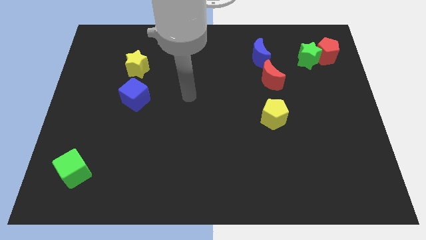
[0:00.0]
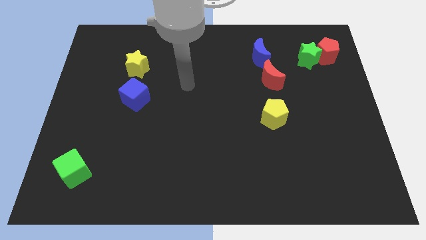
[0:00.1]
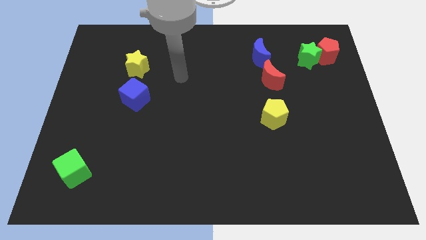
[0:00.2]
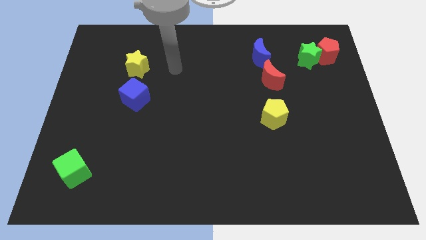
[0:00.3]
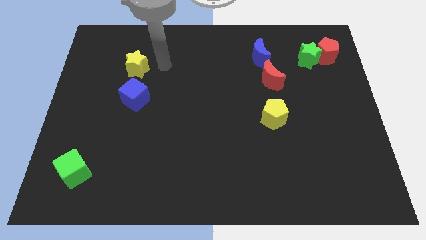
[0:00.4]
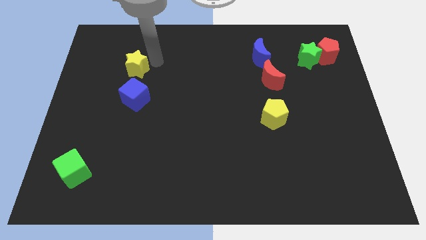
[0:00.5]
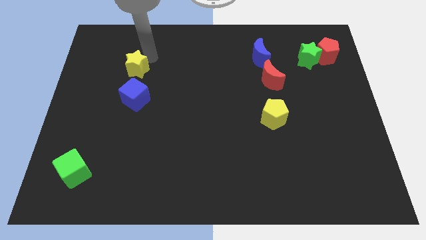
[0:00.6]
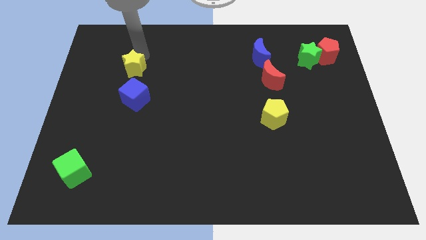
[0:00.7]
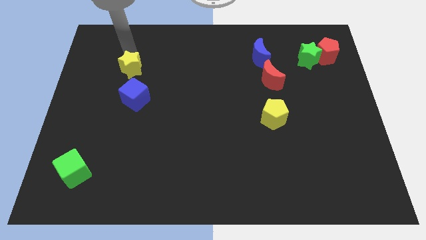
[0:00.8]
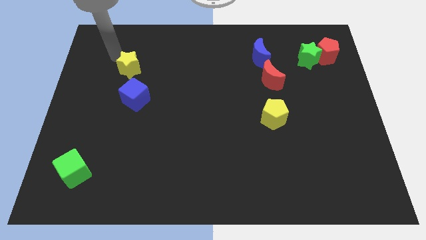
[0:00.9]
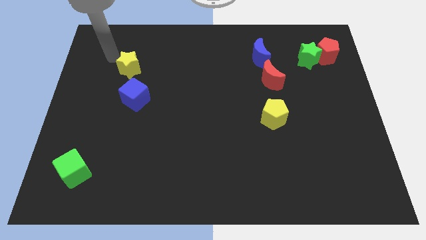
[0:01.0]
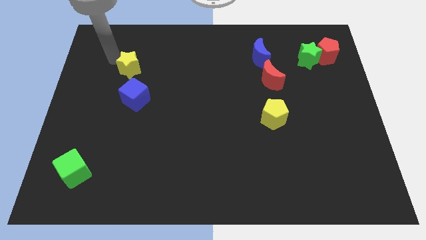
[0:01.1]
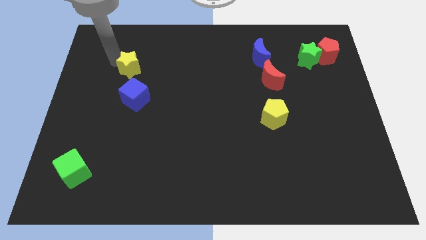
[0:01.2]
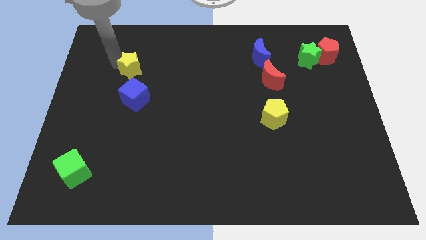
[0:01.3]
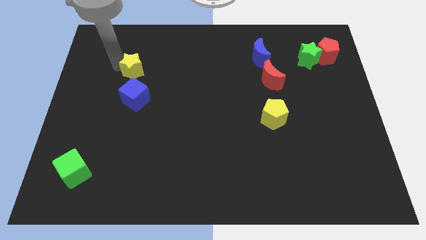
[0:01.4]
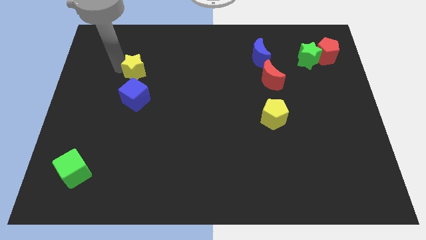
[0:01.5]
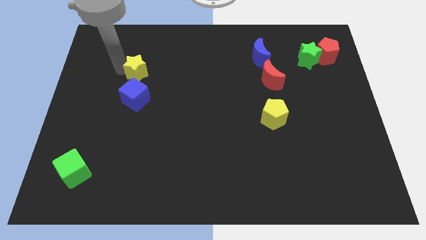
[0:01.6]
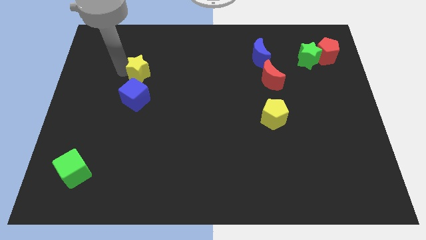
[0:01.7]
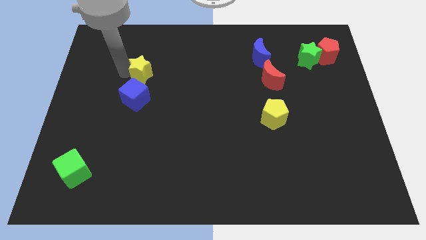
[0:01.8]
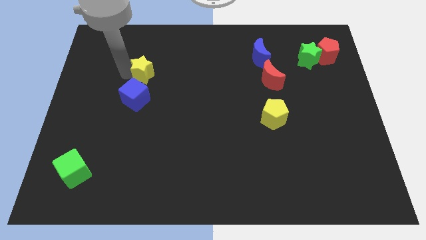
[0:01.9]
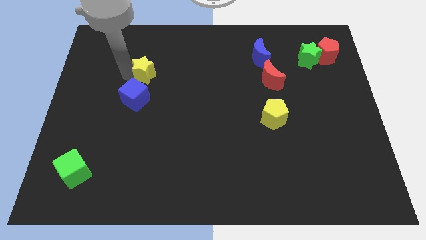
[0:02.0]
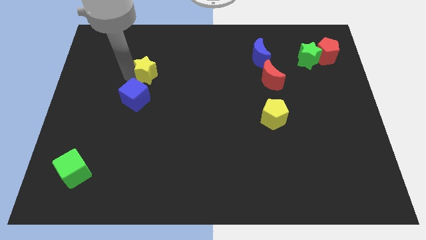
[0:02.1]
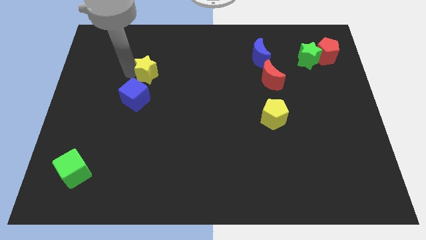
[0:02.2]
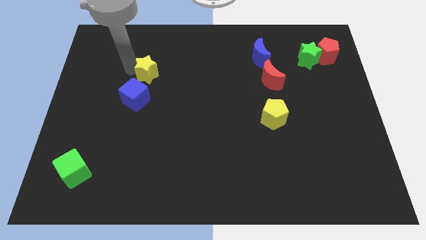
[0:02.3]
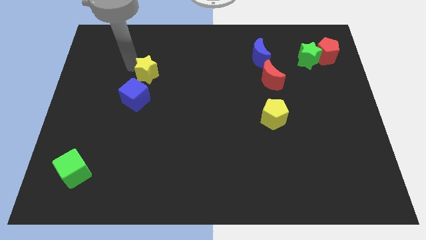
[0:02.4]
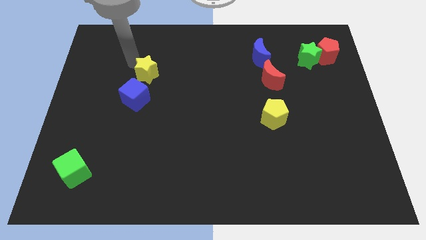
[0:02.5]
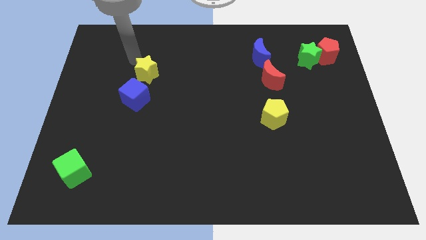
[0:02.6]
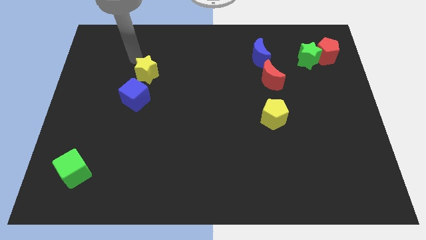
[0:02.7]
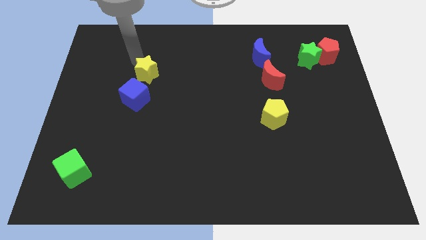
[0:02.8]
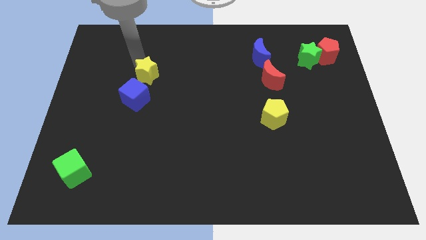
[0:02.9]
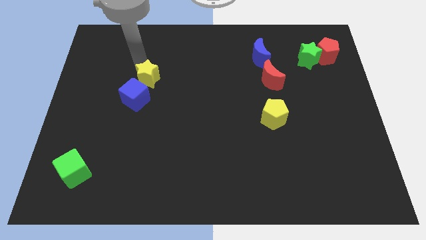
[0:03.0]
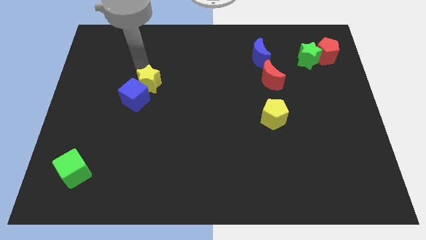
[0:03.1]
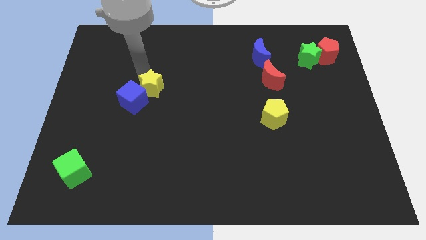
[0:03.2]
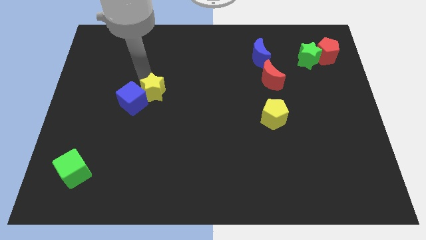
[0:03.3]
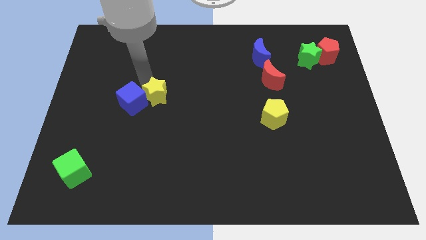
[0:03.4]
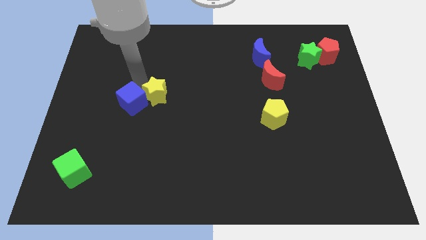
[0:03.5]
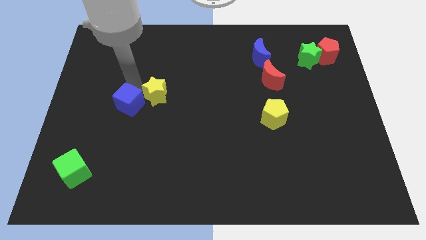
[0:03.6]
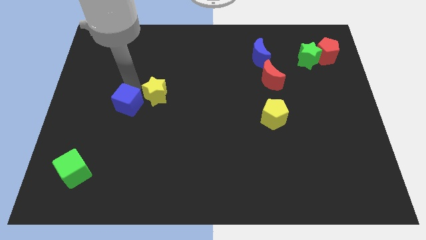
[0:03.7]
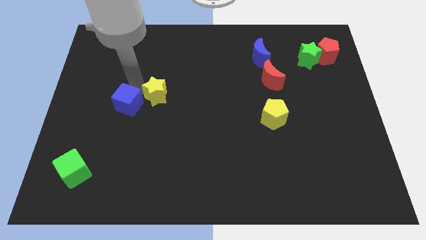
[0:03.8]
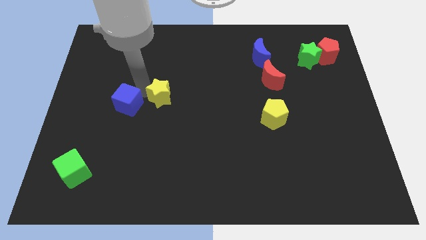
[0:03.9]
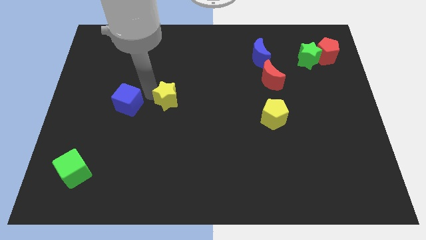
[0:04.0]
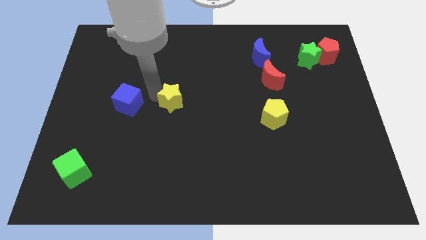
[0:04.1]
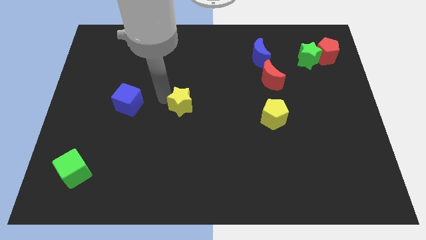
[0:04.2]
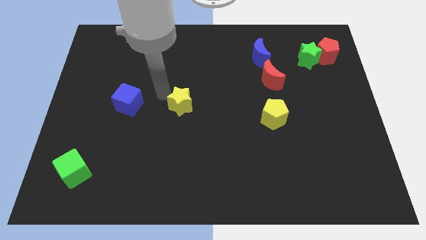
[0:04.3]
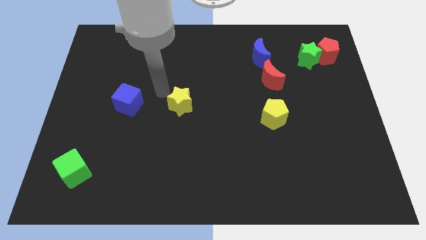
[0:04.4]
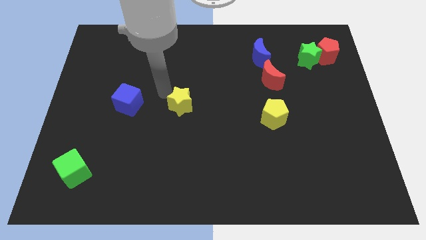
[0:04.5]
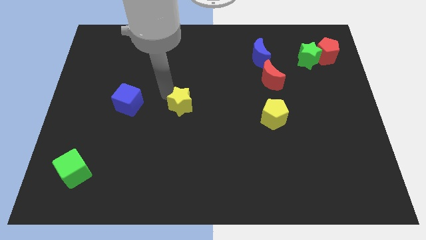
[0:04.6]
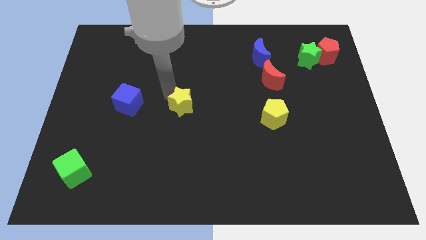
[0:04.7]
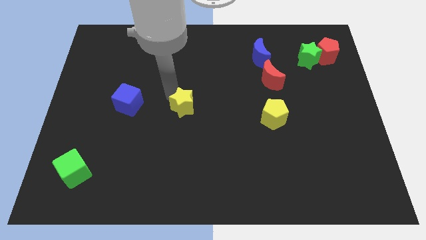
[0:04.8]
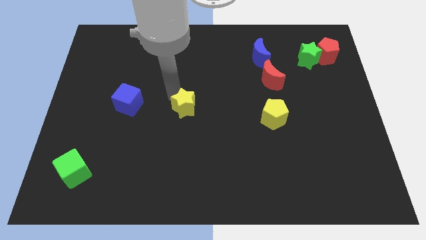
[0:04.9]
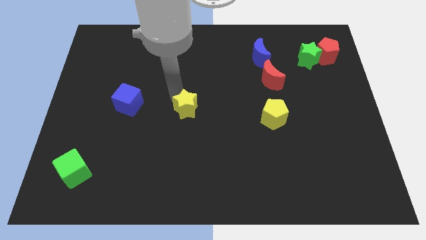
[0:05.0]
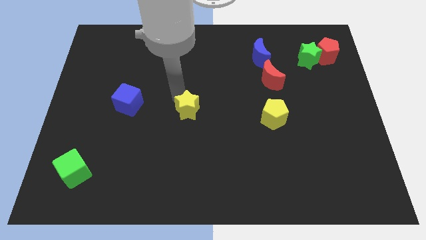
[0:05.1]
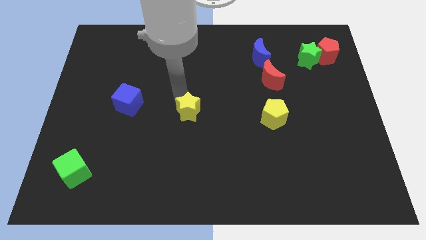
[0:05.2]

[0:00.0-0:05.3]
push the yellow star downwards and right diagonally

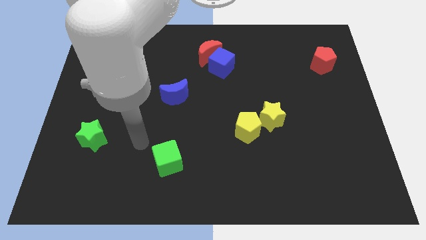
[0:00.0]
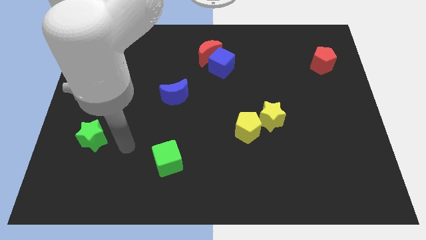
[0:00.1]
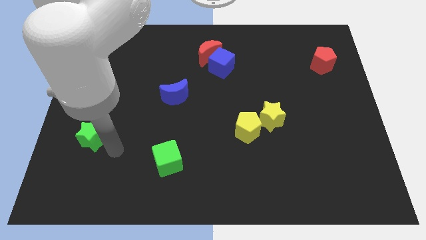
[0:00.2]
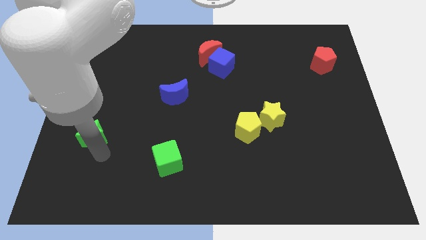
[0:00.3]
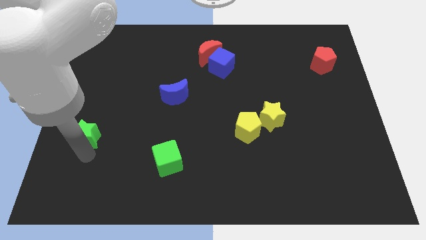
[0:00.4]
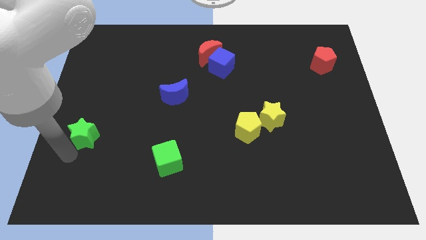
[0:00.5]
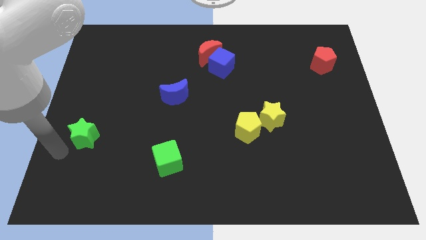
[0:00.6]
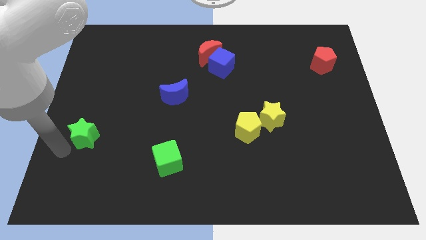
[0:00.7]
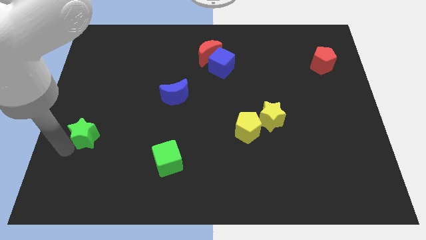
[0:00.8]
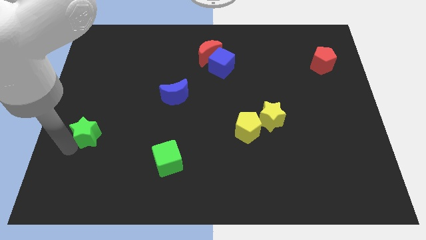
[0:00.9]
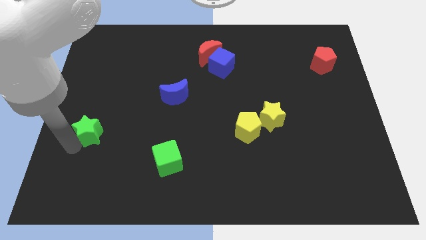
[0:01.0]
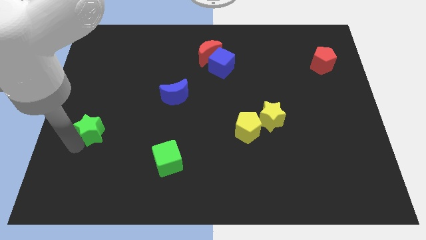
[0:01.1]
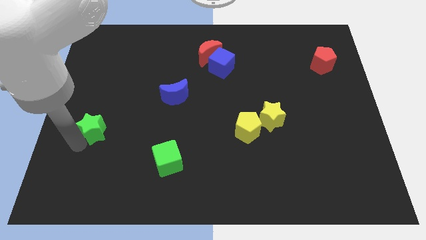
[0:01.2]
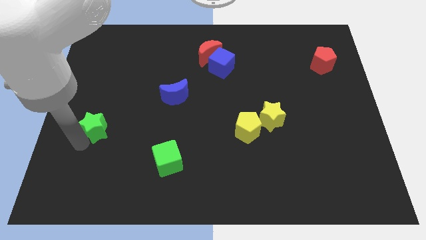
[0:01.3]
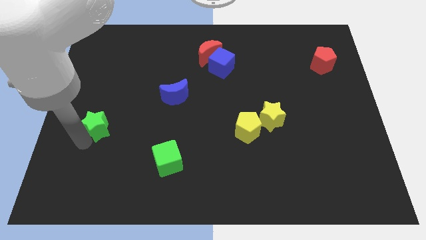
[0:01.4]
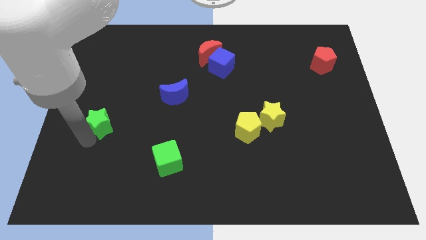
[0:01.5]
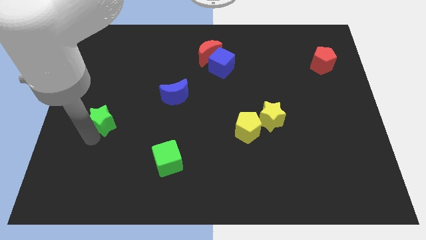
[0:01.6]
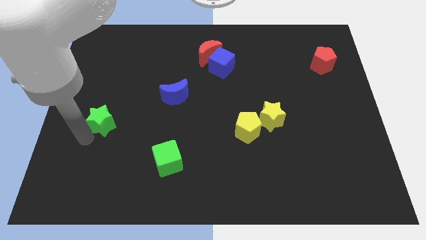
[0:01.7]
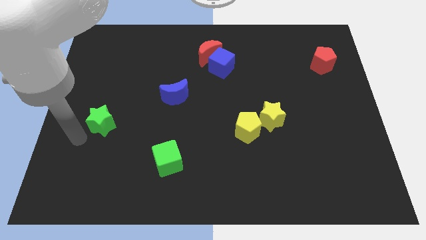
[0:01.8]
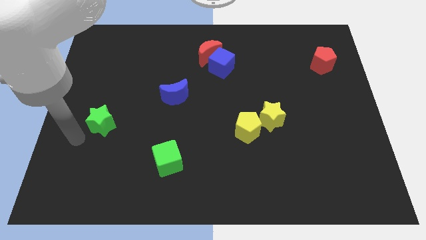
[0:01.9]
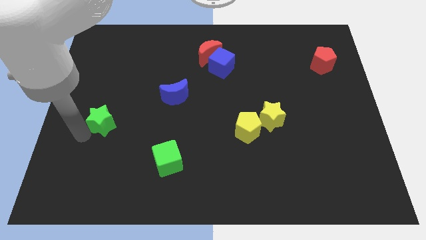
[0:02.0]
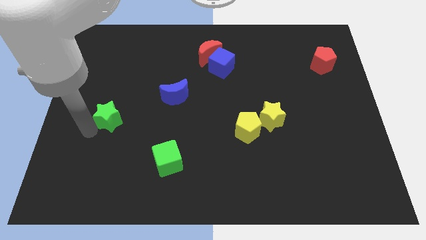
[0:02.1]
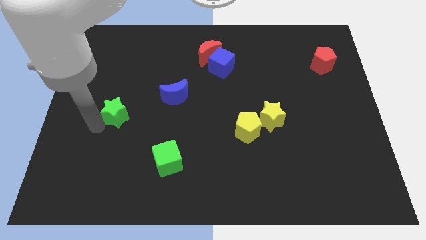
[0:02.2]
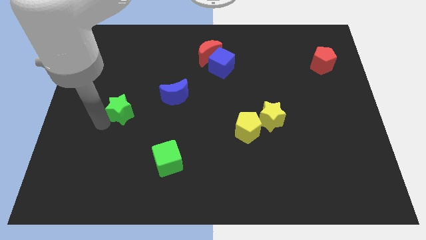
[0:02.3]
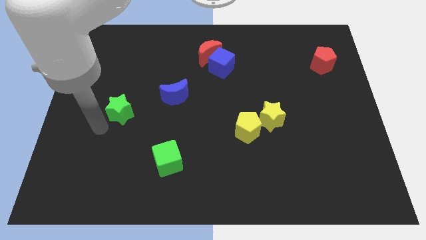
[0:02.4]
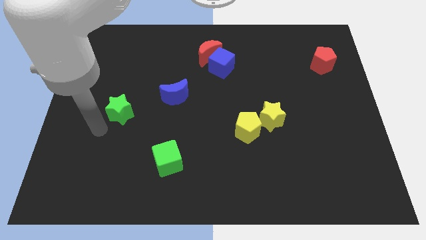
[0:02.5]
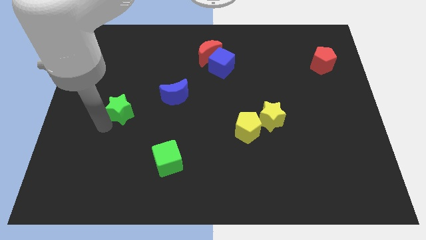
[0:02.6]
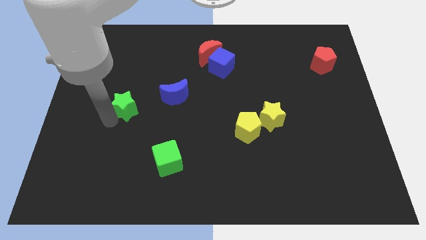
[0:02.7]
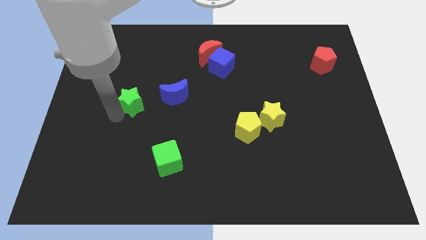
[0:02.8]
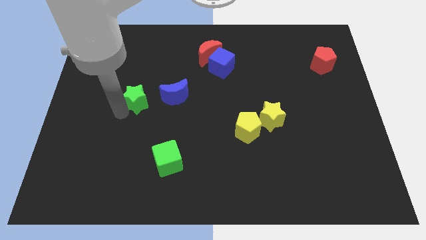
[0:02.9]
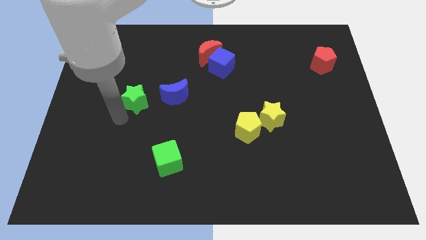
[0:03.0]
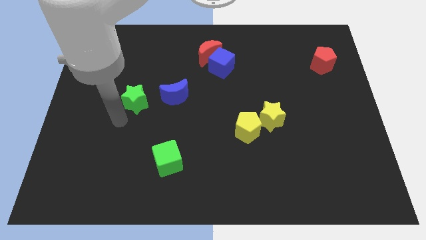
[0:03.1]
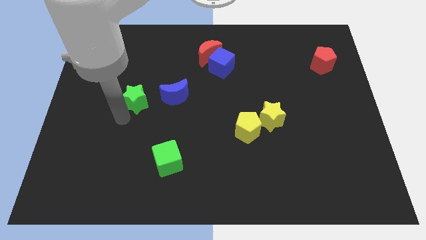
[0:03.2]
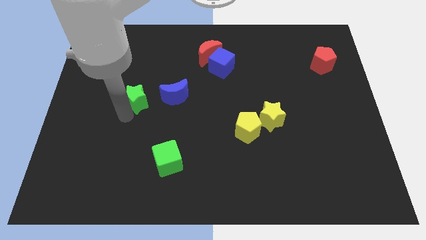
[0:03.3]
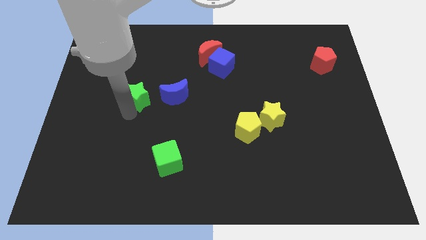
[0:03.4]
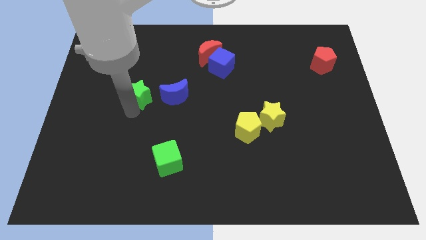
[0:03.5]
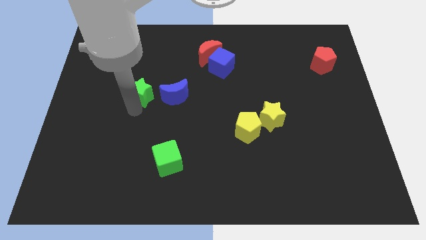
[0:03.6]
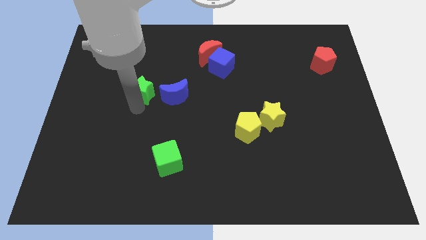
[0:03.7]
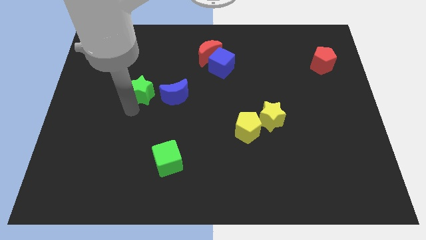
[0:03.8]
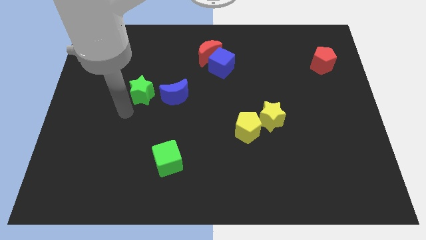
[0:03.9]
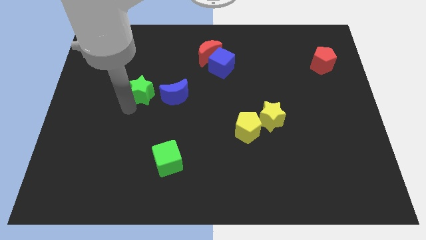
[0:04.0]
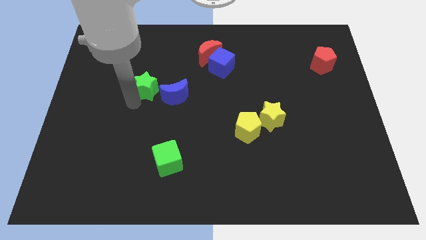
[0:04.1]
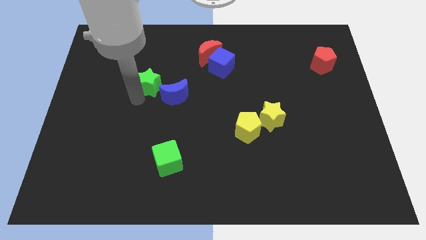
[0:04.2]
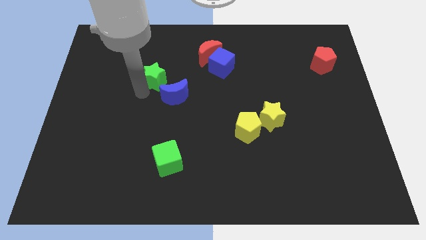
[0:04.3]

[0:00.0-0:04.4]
push the green star upwards and right
